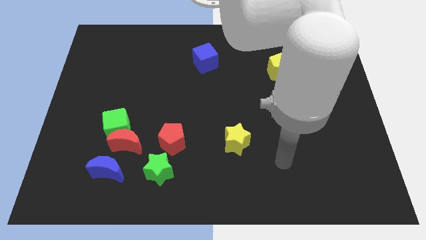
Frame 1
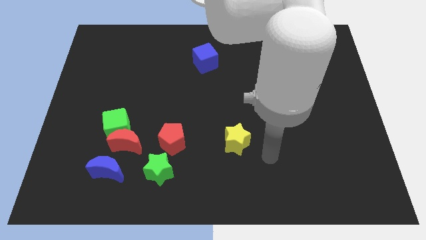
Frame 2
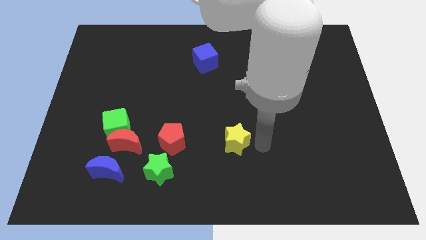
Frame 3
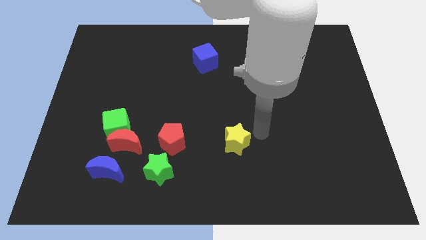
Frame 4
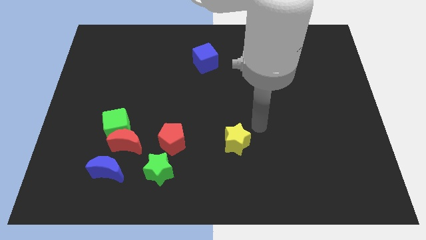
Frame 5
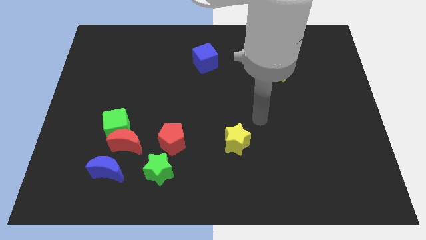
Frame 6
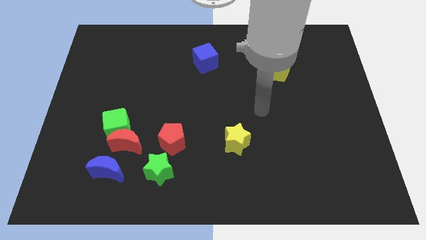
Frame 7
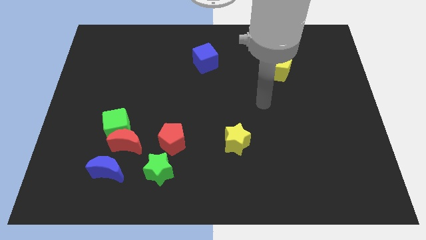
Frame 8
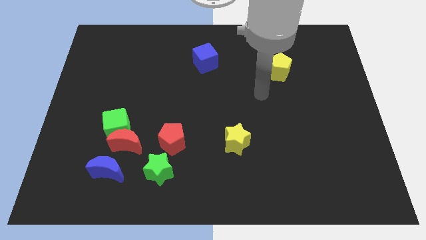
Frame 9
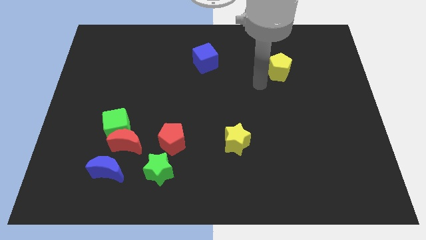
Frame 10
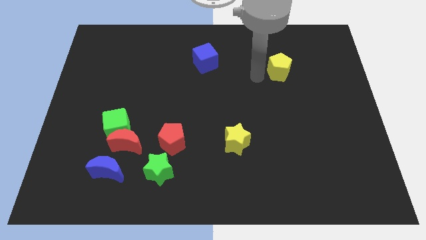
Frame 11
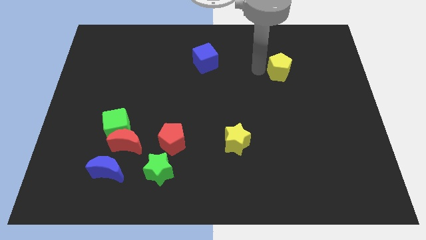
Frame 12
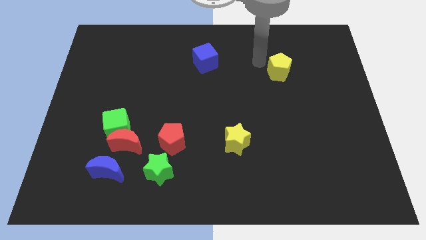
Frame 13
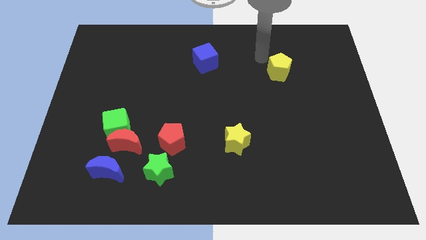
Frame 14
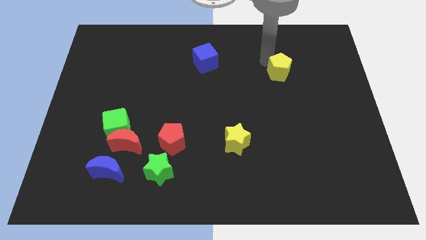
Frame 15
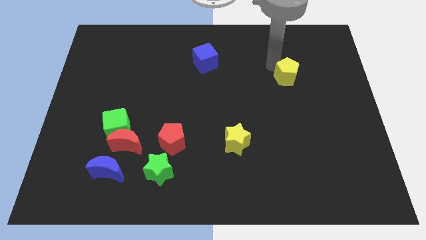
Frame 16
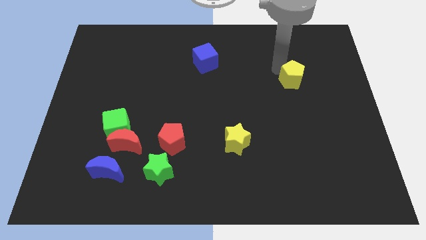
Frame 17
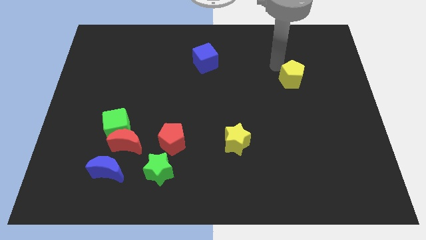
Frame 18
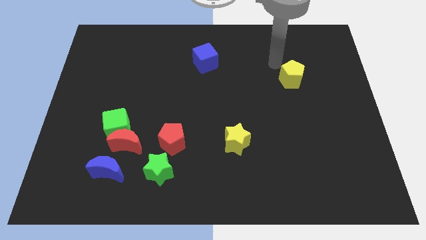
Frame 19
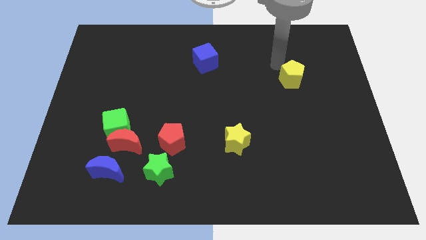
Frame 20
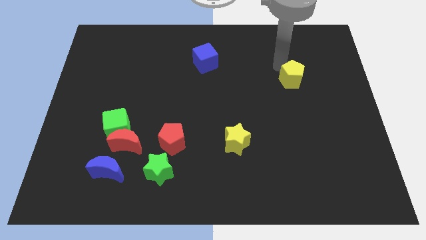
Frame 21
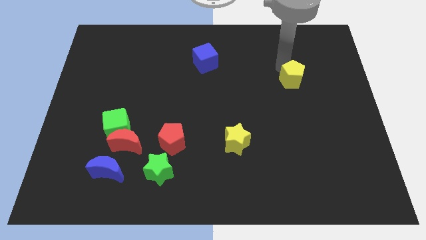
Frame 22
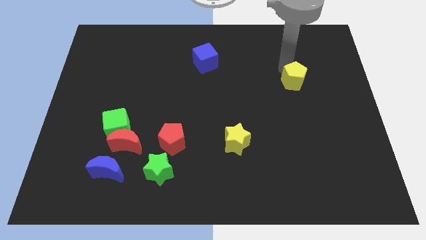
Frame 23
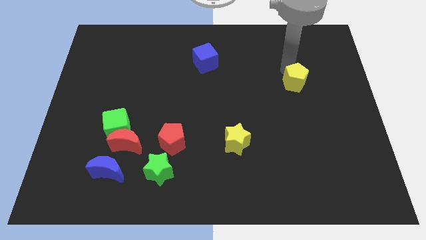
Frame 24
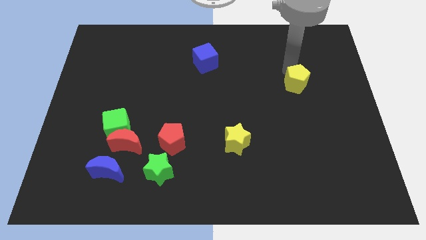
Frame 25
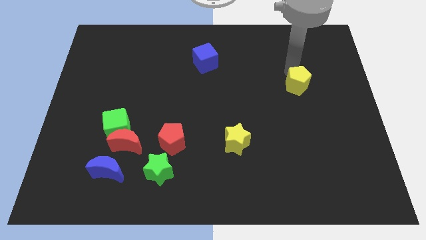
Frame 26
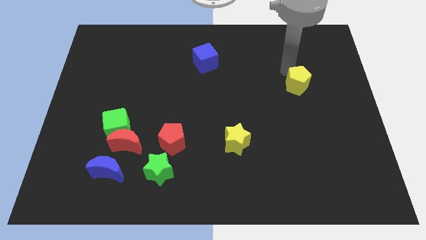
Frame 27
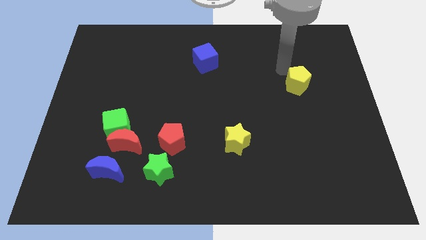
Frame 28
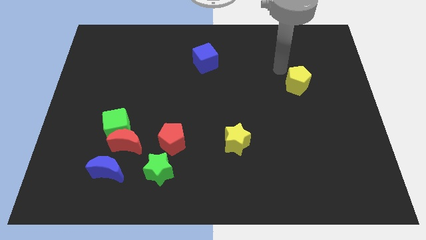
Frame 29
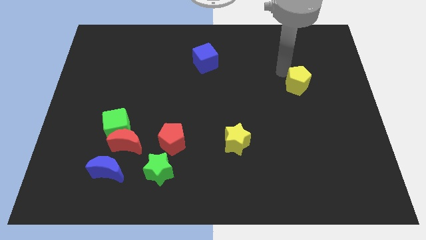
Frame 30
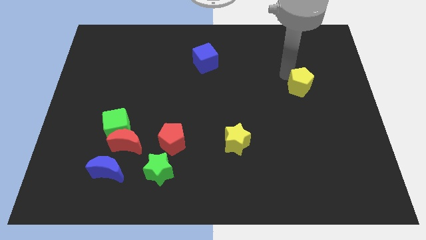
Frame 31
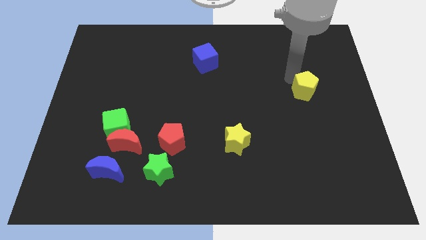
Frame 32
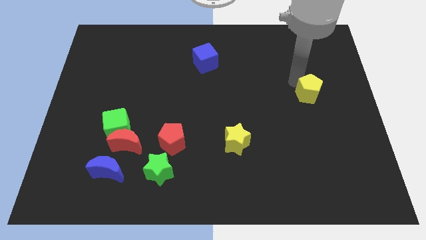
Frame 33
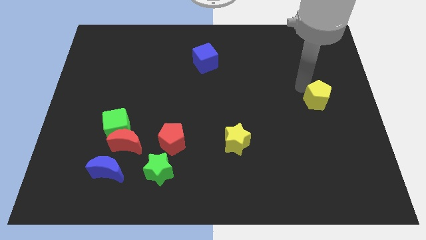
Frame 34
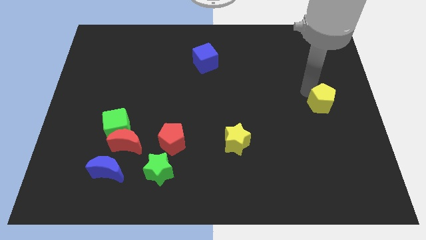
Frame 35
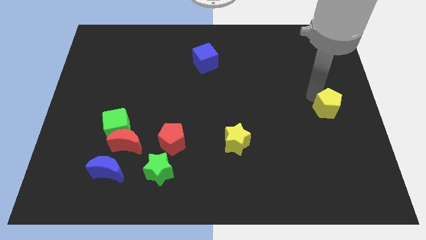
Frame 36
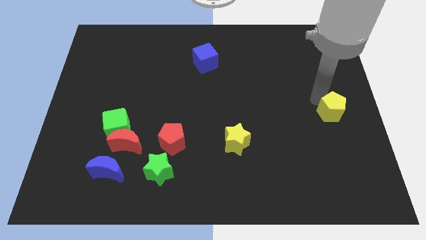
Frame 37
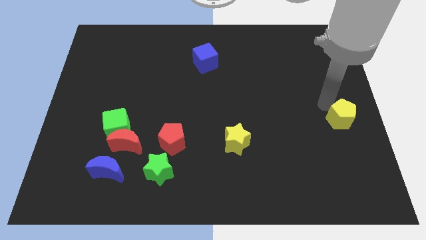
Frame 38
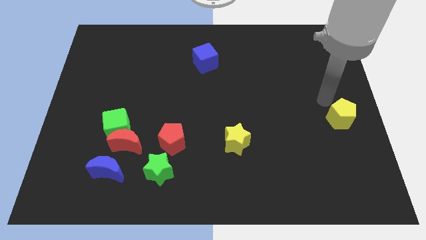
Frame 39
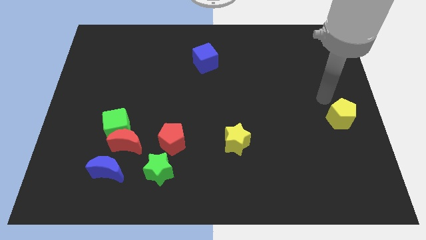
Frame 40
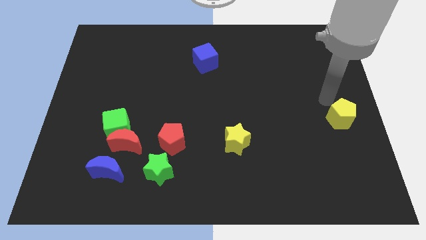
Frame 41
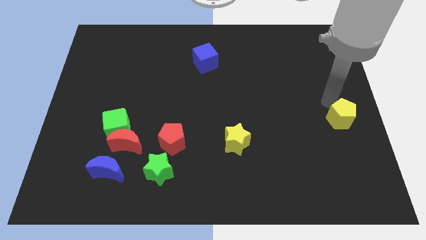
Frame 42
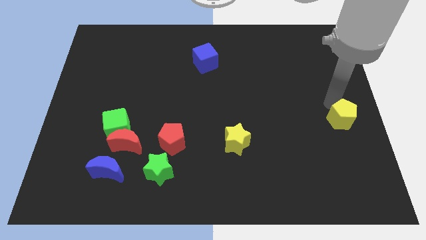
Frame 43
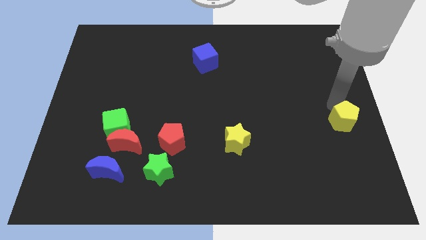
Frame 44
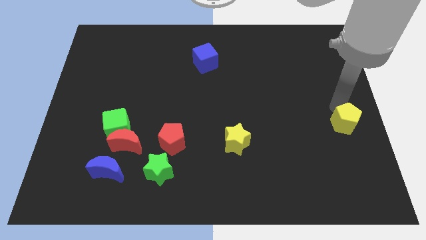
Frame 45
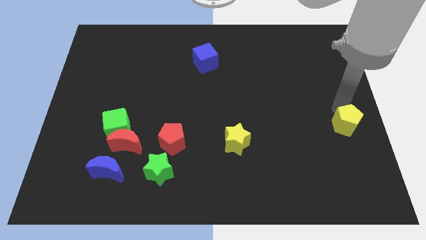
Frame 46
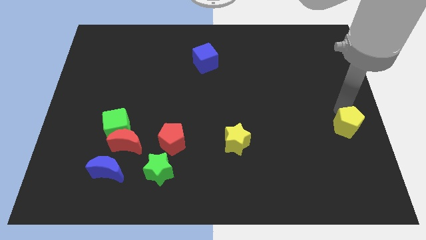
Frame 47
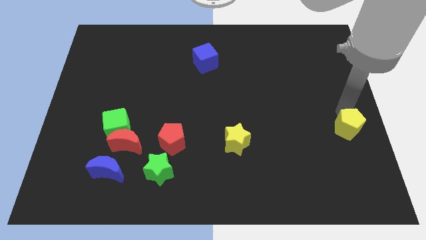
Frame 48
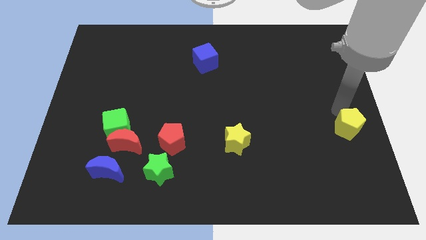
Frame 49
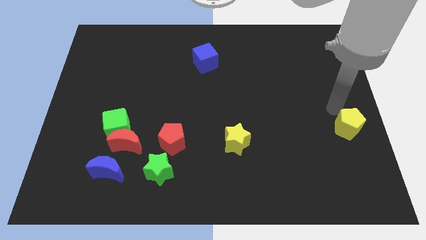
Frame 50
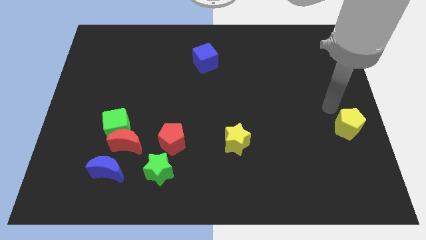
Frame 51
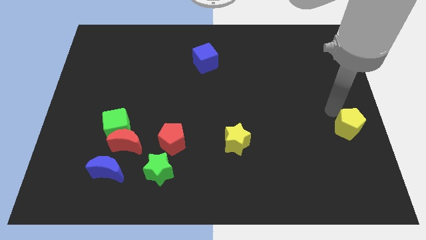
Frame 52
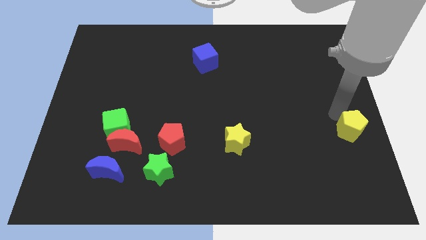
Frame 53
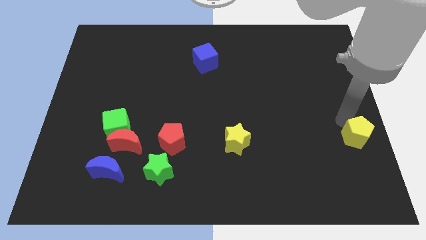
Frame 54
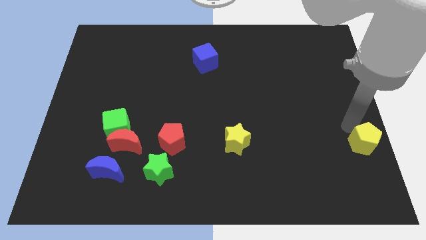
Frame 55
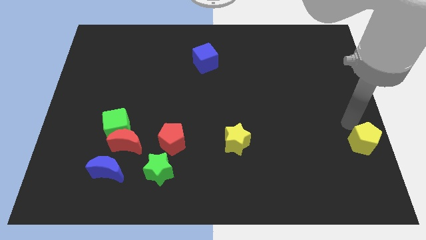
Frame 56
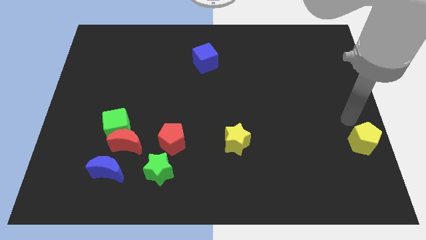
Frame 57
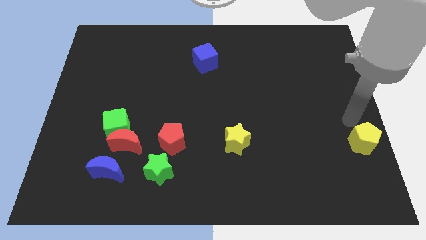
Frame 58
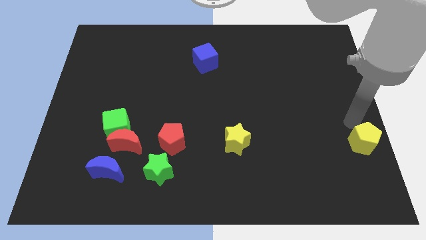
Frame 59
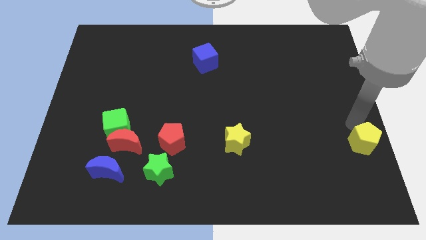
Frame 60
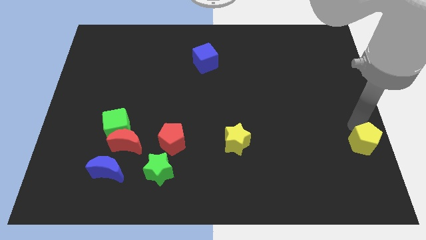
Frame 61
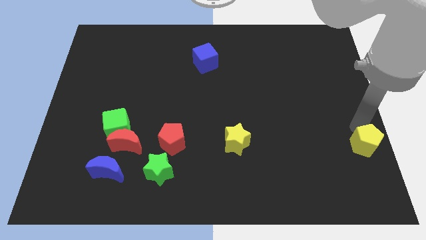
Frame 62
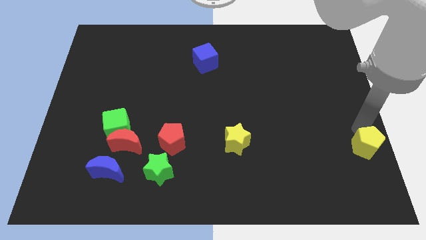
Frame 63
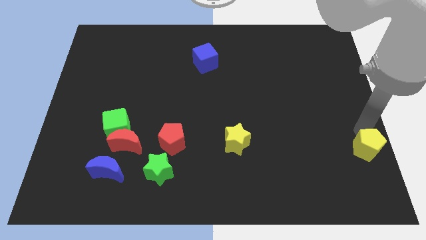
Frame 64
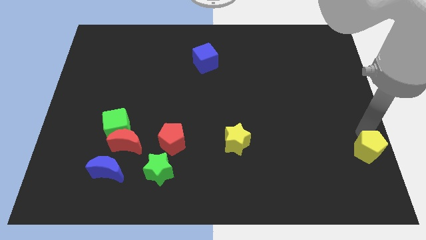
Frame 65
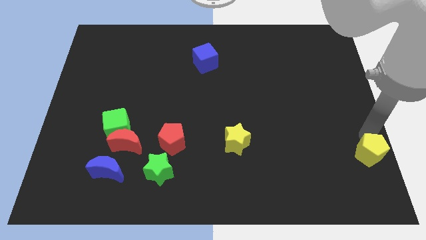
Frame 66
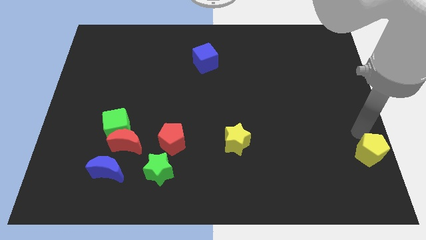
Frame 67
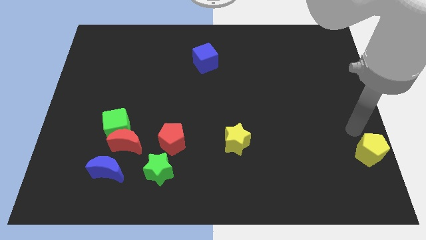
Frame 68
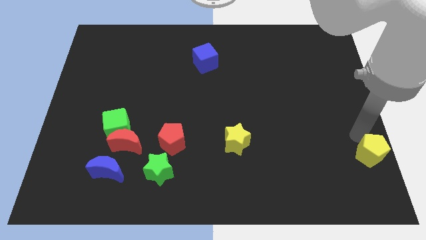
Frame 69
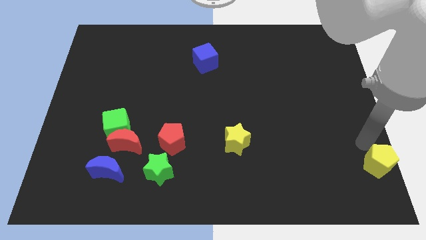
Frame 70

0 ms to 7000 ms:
move the yellow pentagon to the bottom right corner
